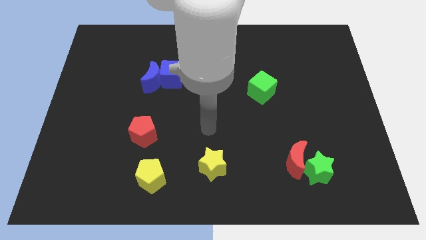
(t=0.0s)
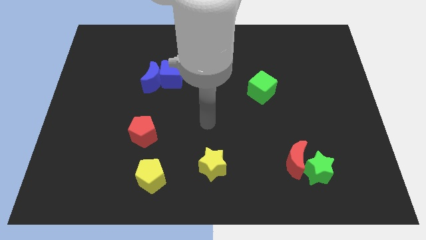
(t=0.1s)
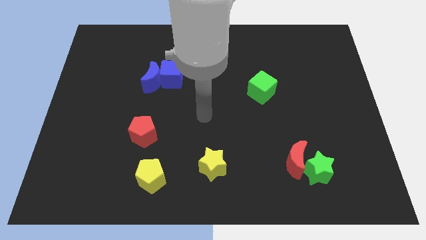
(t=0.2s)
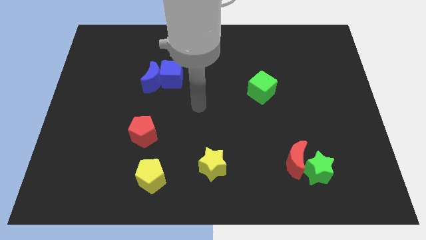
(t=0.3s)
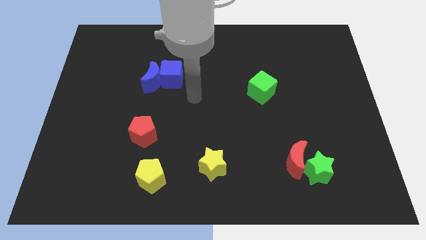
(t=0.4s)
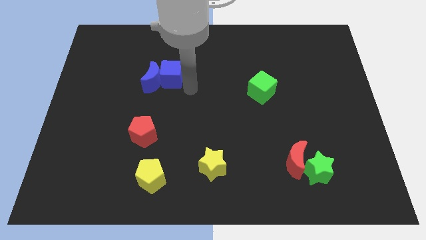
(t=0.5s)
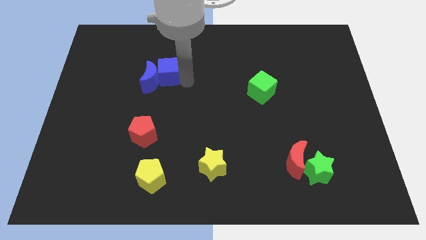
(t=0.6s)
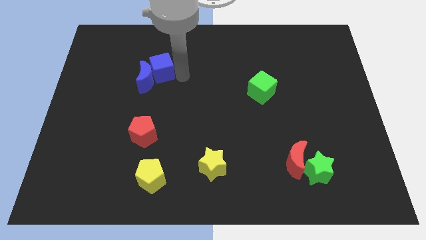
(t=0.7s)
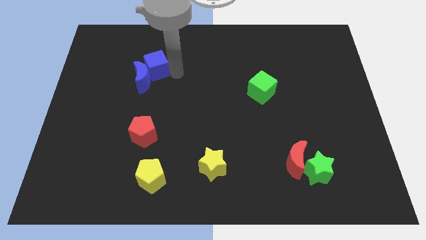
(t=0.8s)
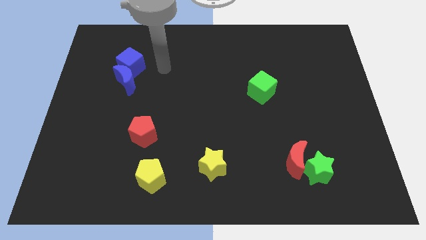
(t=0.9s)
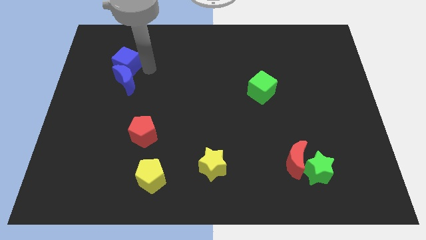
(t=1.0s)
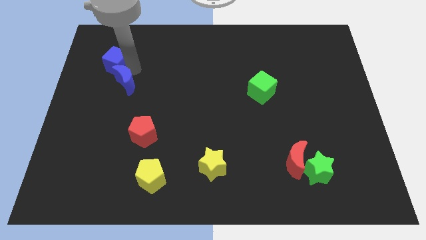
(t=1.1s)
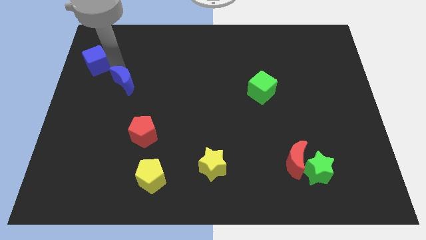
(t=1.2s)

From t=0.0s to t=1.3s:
pull the blue moon apart from the blue cube

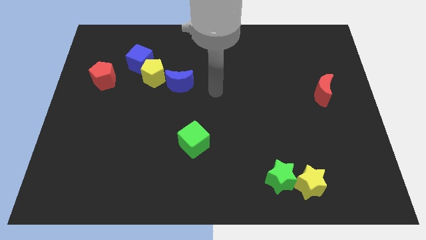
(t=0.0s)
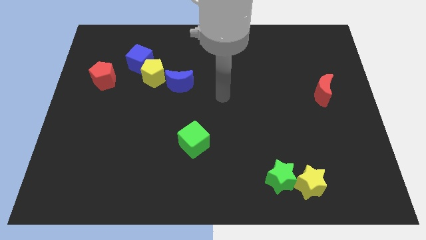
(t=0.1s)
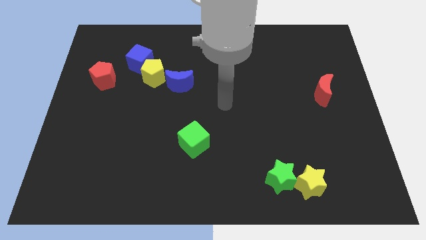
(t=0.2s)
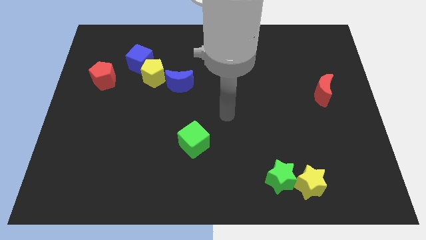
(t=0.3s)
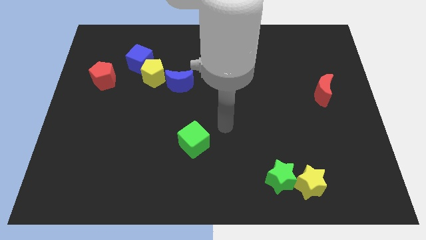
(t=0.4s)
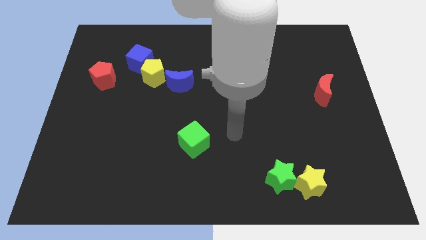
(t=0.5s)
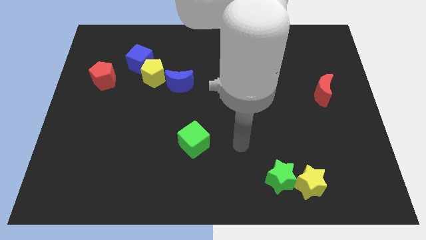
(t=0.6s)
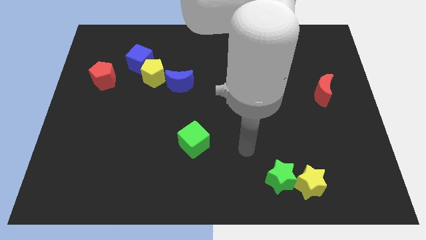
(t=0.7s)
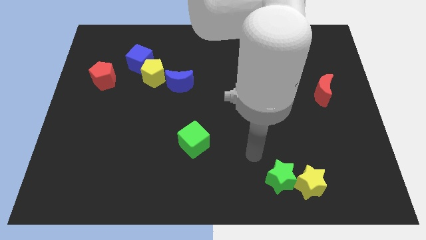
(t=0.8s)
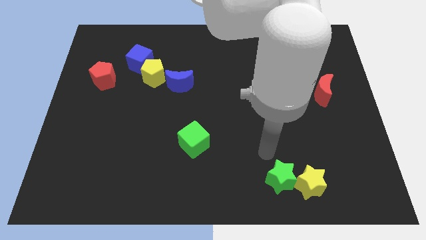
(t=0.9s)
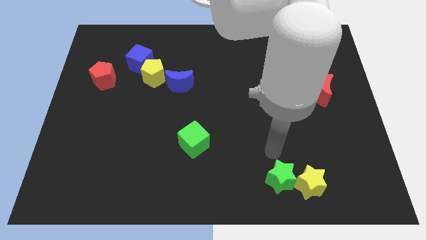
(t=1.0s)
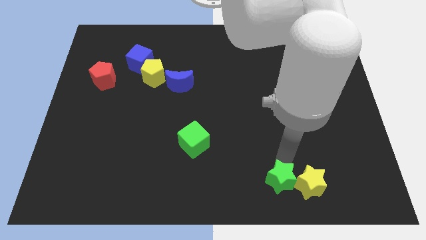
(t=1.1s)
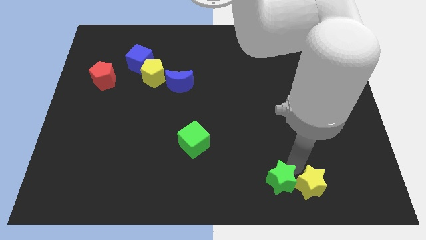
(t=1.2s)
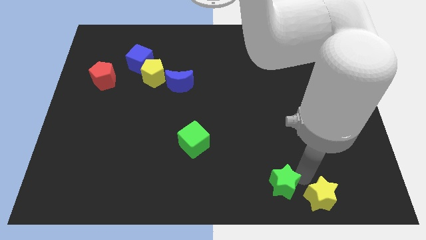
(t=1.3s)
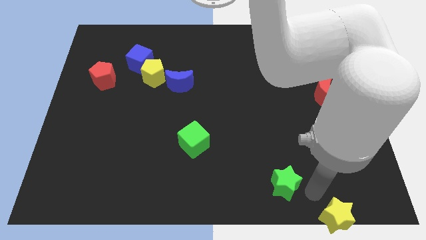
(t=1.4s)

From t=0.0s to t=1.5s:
pull the green star apart from the yellow star

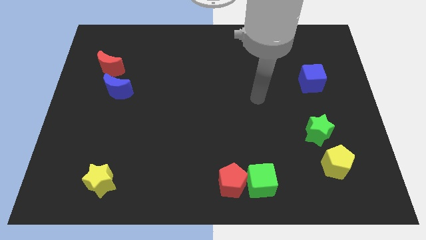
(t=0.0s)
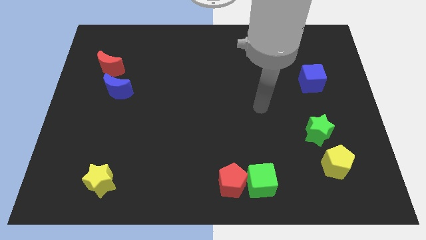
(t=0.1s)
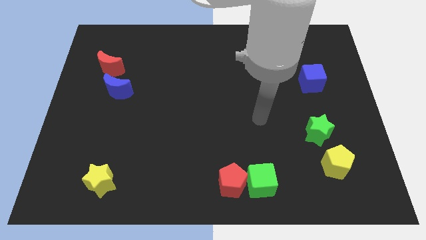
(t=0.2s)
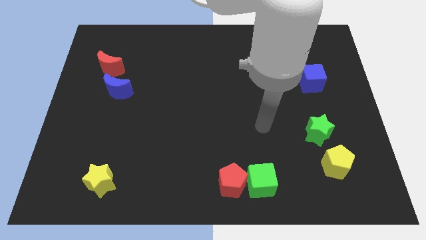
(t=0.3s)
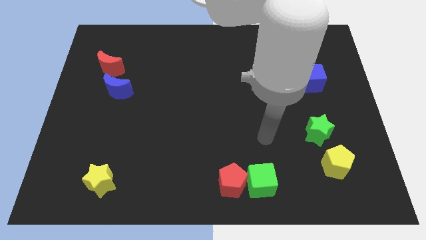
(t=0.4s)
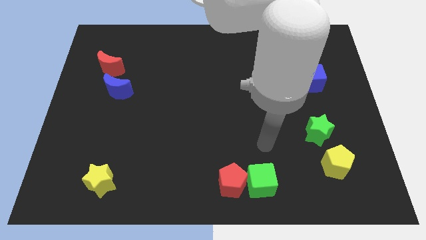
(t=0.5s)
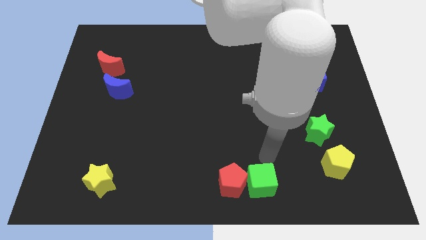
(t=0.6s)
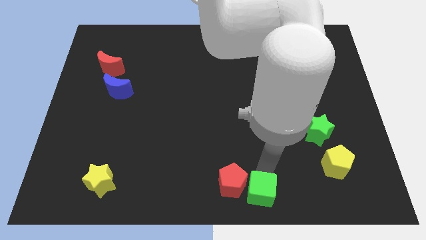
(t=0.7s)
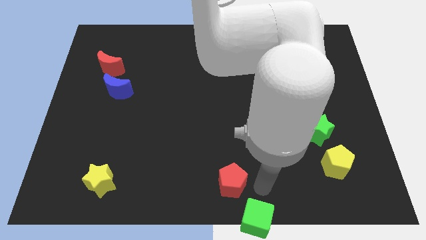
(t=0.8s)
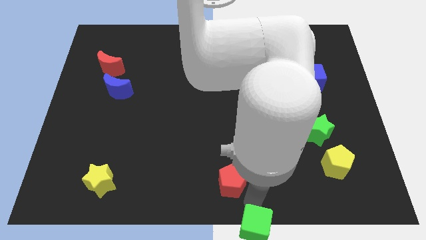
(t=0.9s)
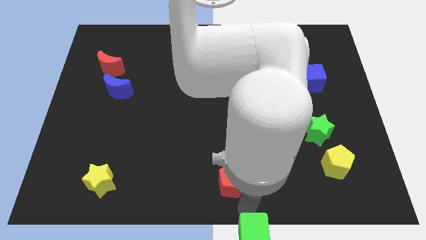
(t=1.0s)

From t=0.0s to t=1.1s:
separate the red pentagon from the green cube

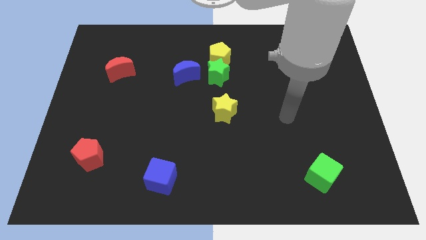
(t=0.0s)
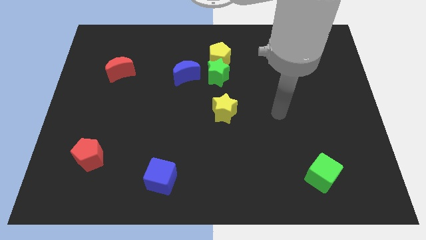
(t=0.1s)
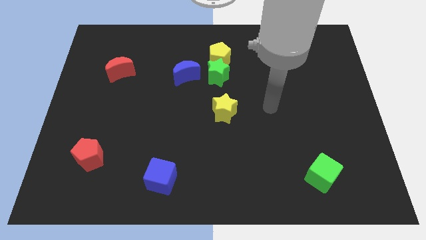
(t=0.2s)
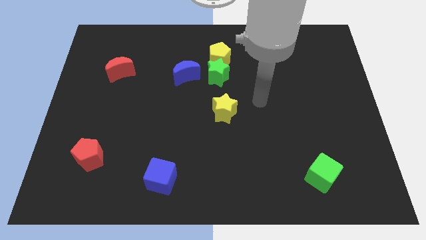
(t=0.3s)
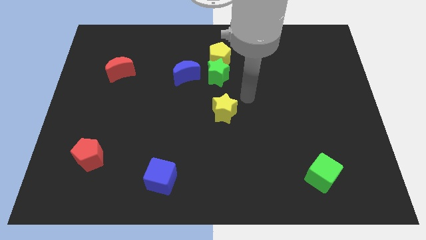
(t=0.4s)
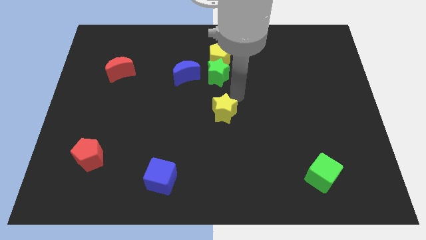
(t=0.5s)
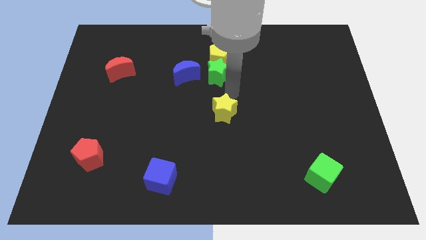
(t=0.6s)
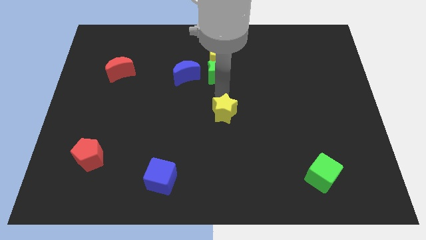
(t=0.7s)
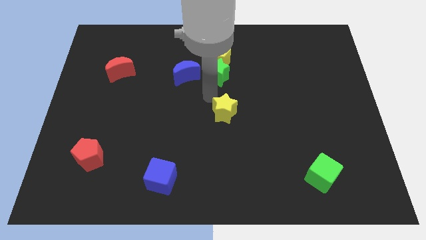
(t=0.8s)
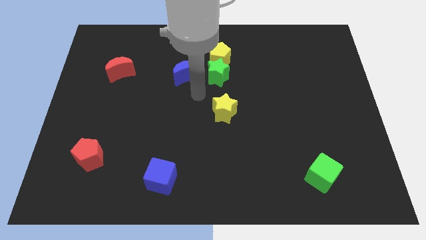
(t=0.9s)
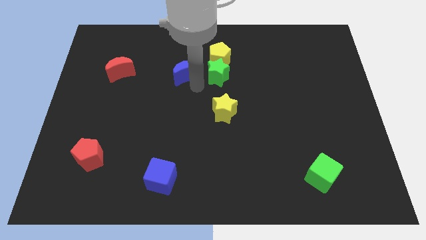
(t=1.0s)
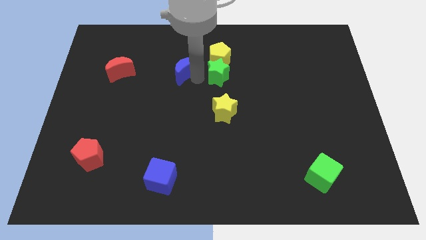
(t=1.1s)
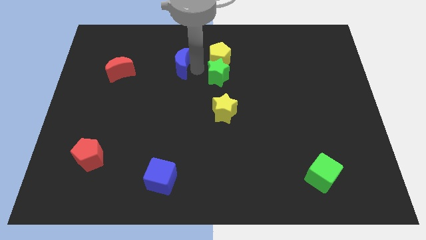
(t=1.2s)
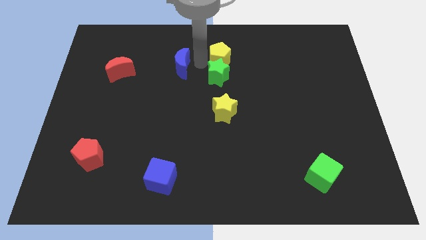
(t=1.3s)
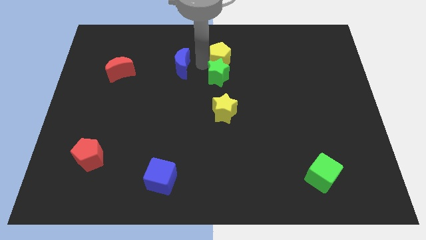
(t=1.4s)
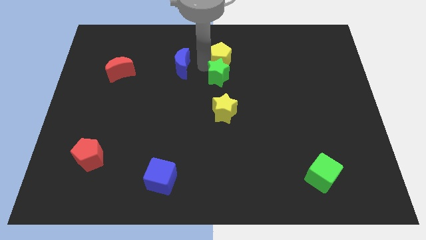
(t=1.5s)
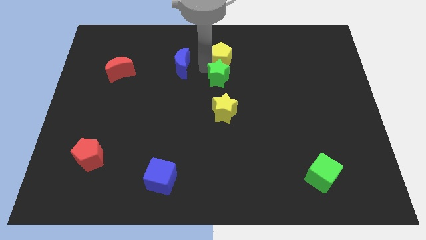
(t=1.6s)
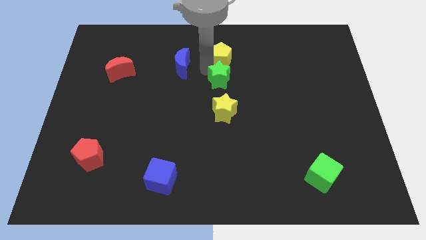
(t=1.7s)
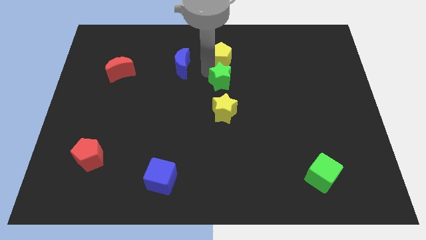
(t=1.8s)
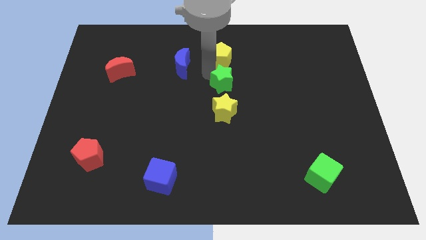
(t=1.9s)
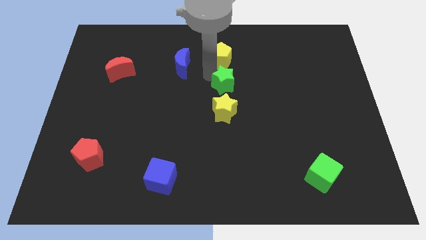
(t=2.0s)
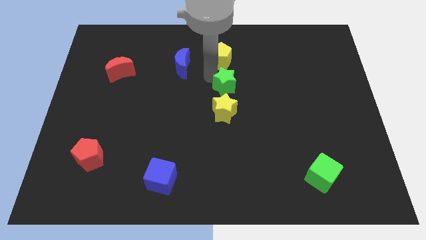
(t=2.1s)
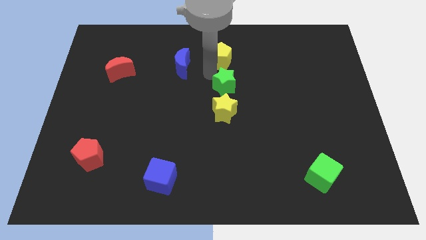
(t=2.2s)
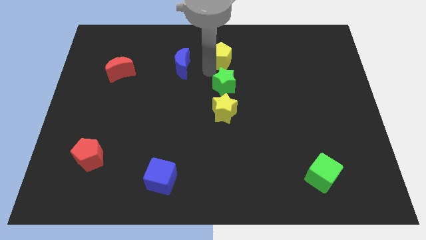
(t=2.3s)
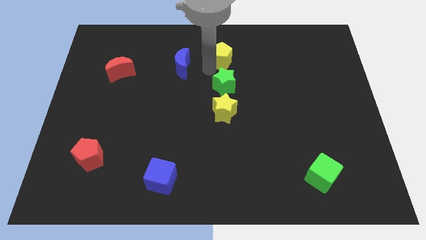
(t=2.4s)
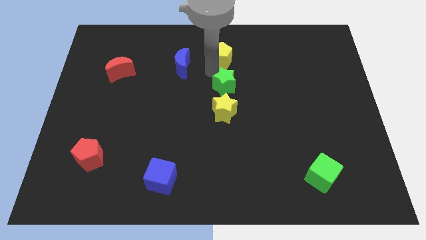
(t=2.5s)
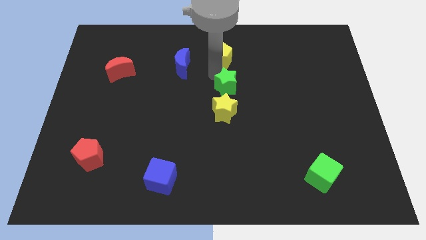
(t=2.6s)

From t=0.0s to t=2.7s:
separate the green star from the yellow pentagon and blue moon

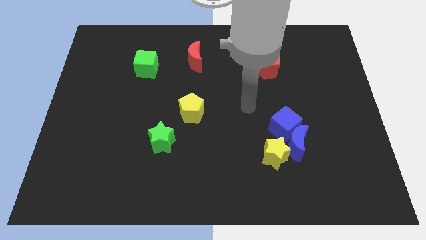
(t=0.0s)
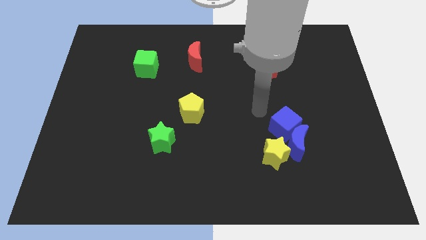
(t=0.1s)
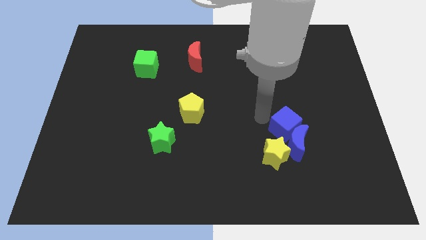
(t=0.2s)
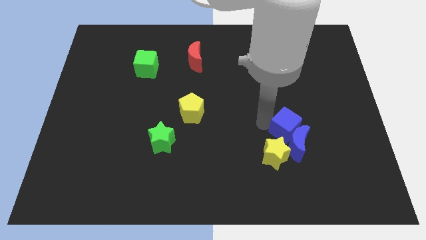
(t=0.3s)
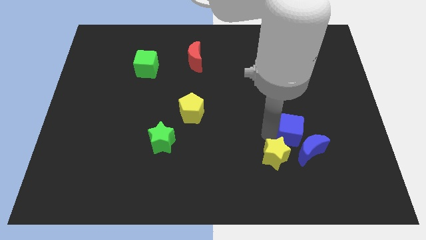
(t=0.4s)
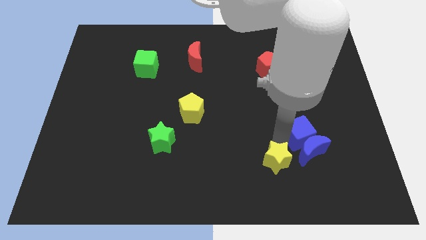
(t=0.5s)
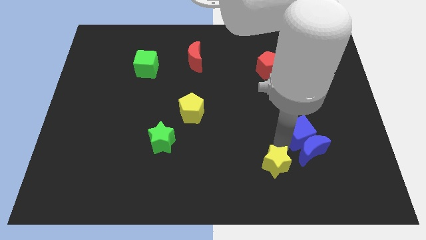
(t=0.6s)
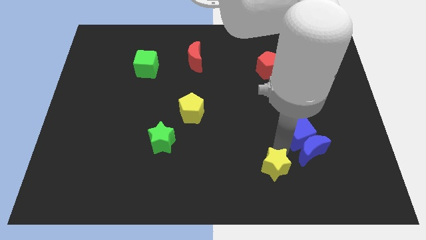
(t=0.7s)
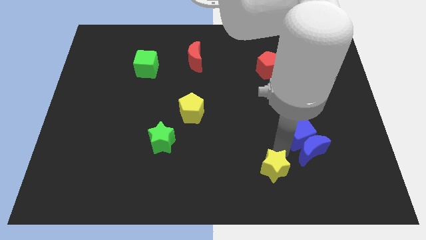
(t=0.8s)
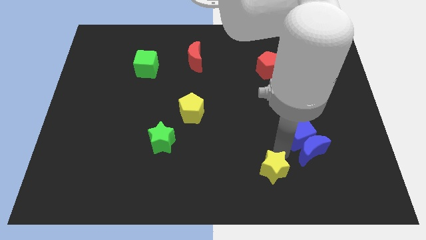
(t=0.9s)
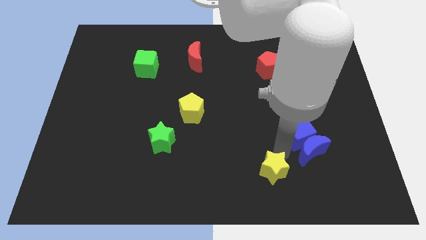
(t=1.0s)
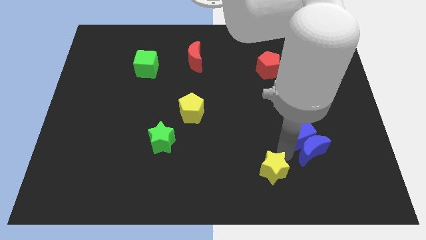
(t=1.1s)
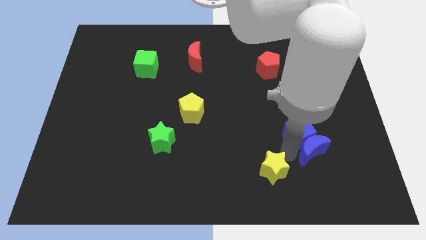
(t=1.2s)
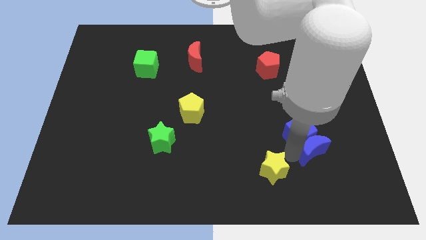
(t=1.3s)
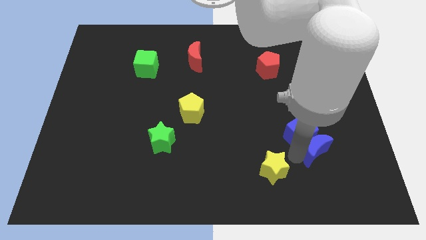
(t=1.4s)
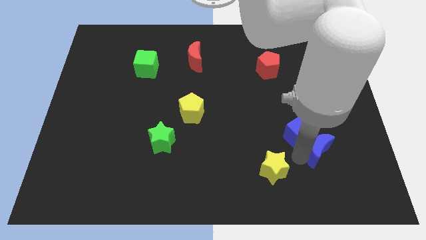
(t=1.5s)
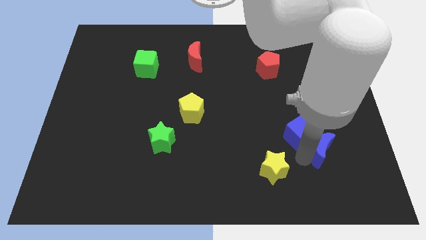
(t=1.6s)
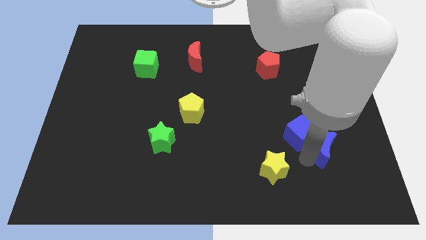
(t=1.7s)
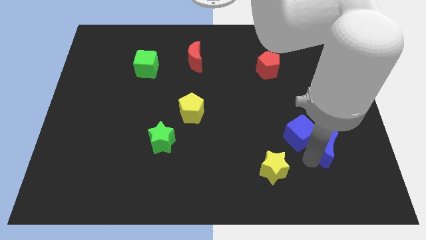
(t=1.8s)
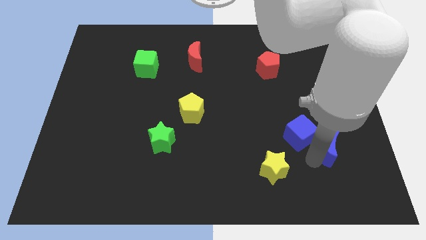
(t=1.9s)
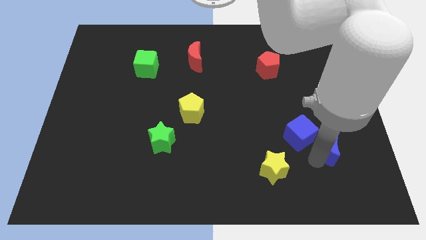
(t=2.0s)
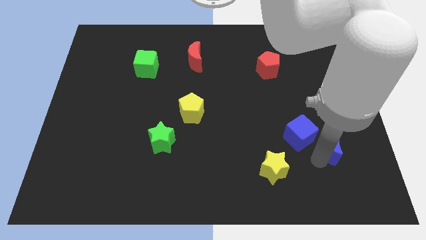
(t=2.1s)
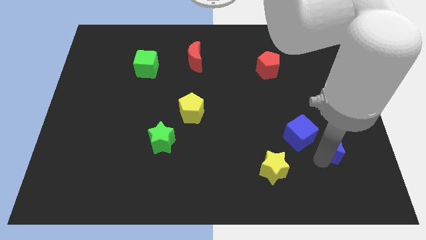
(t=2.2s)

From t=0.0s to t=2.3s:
pull the blue moon apart from the blue cube and yellow star

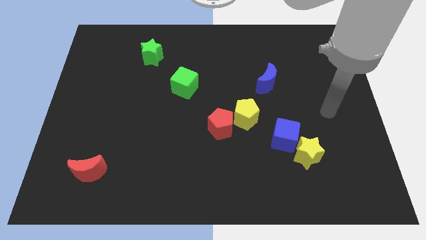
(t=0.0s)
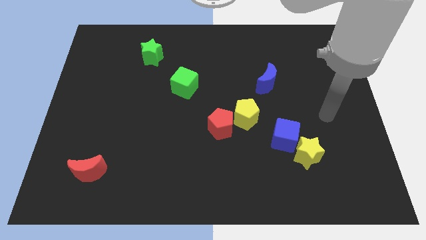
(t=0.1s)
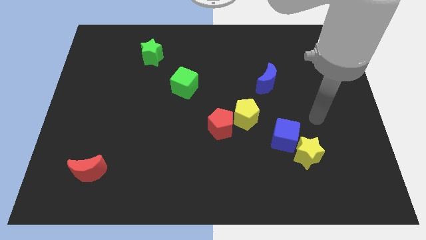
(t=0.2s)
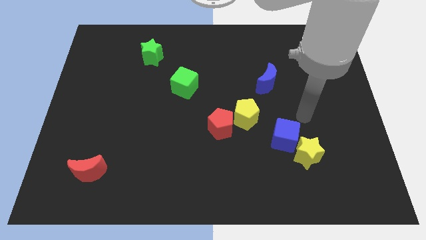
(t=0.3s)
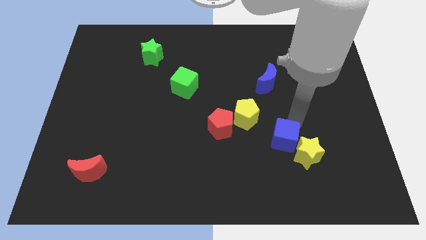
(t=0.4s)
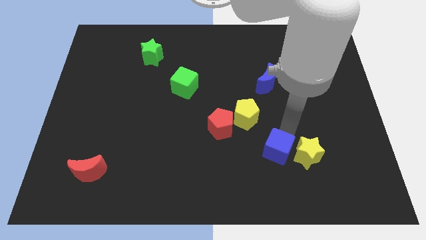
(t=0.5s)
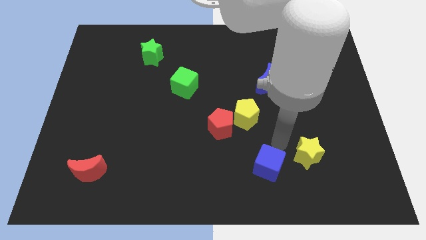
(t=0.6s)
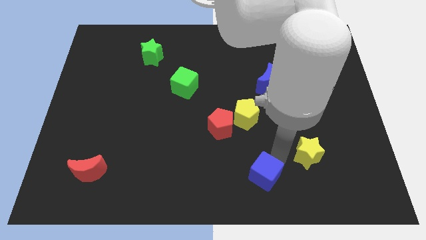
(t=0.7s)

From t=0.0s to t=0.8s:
separate the yellow star from the blue cube
